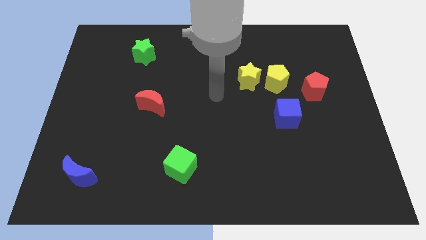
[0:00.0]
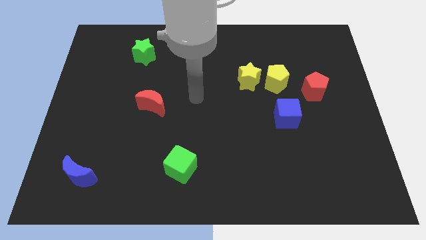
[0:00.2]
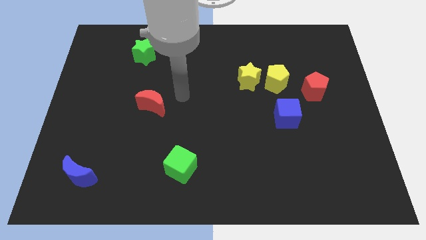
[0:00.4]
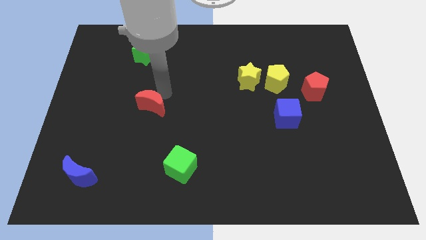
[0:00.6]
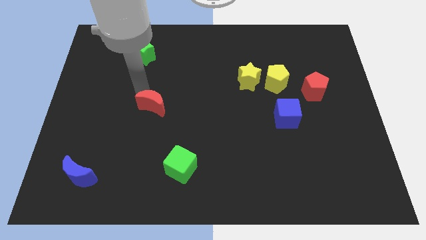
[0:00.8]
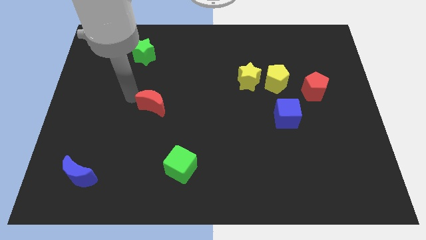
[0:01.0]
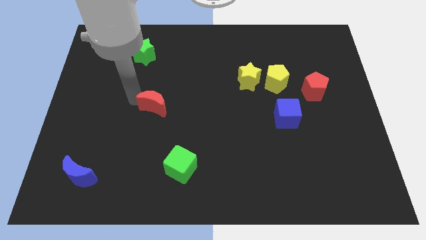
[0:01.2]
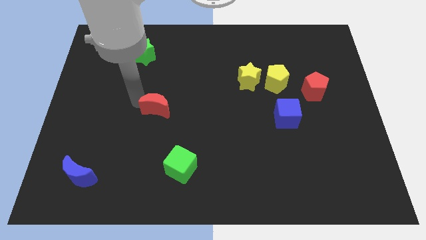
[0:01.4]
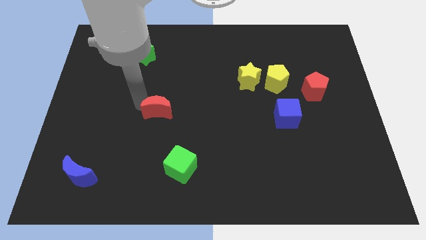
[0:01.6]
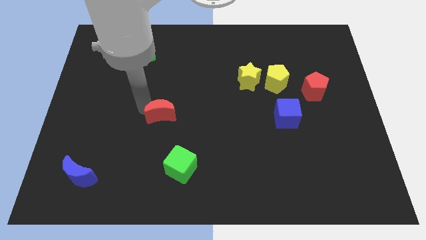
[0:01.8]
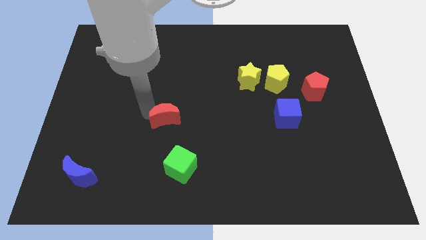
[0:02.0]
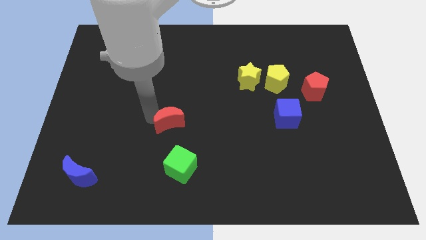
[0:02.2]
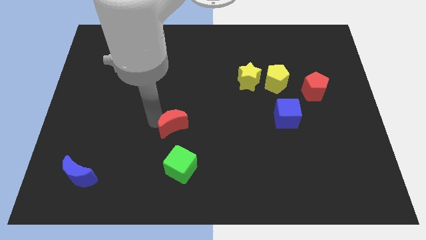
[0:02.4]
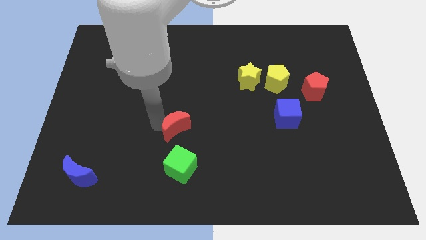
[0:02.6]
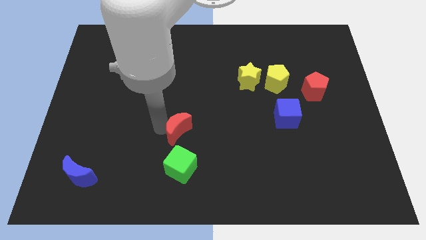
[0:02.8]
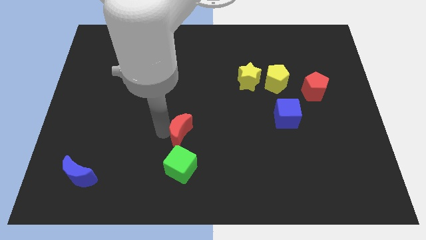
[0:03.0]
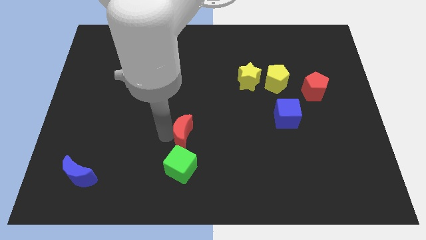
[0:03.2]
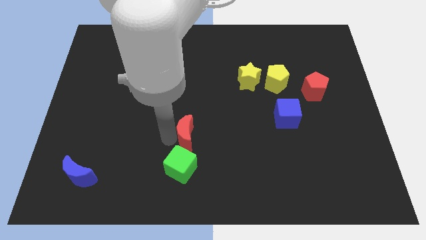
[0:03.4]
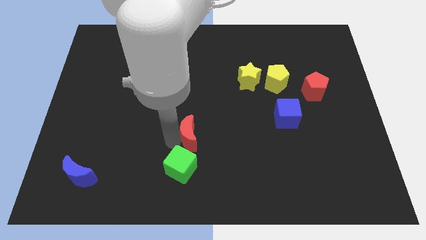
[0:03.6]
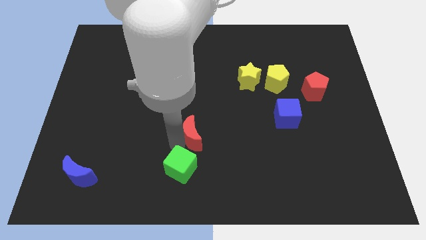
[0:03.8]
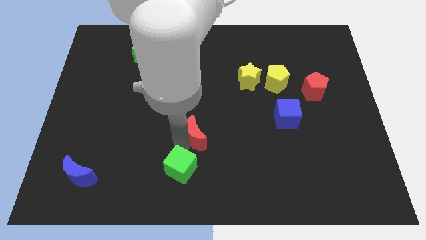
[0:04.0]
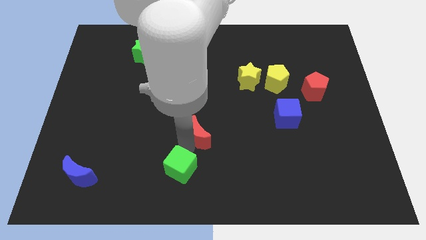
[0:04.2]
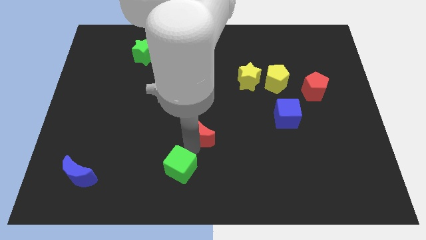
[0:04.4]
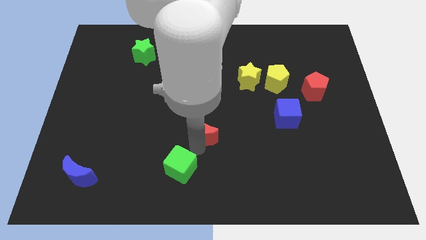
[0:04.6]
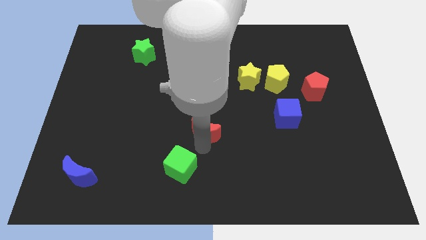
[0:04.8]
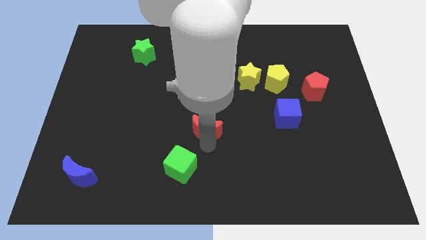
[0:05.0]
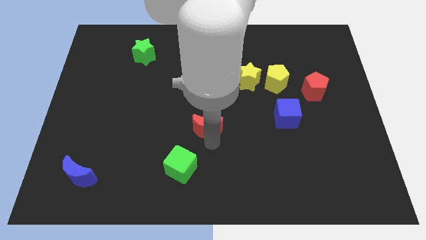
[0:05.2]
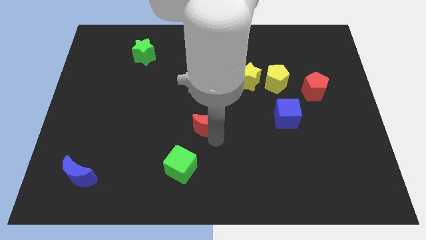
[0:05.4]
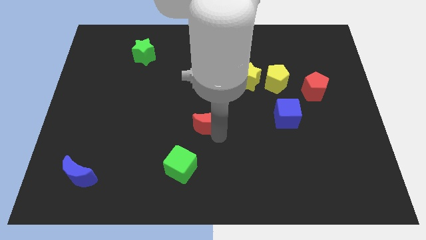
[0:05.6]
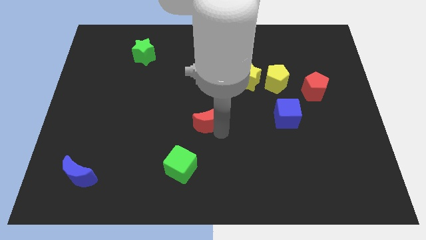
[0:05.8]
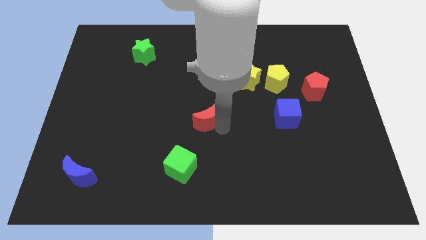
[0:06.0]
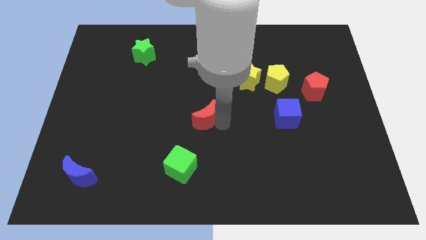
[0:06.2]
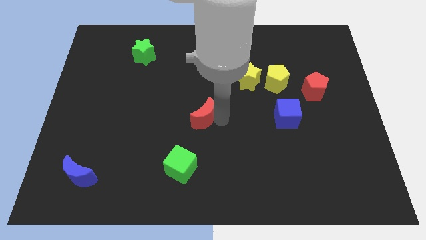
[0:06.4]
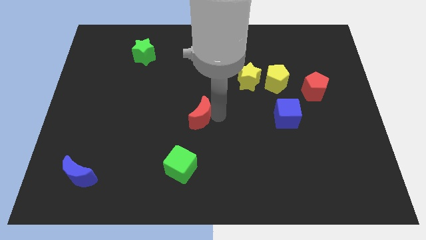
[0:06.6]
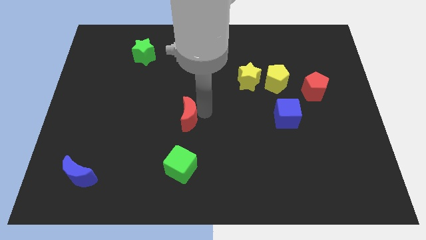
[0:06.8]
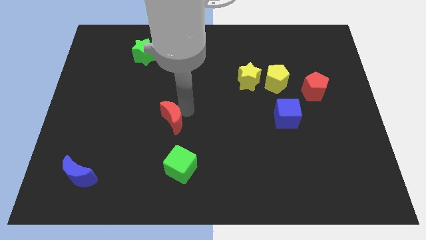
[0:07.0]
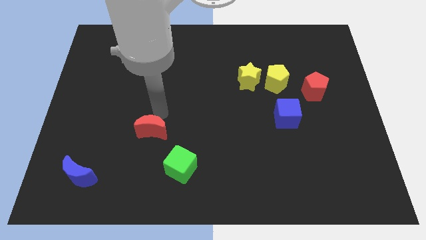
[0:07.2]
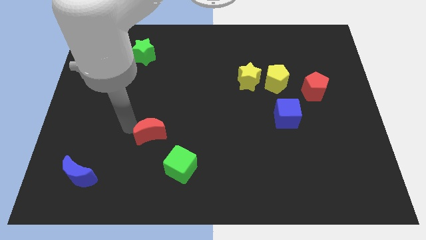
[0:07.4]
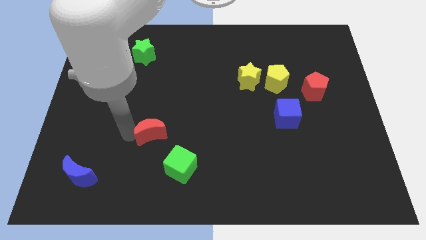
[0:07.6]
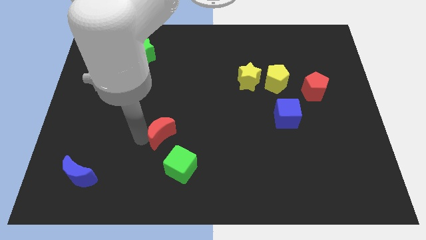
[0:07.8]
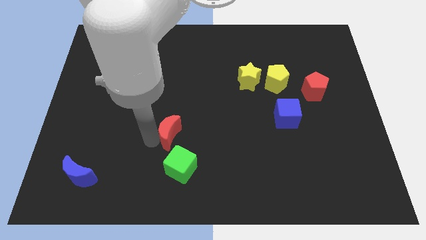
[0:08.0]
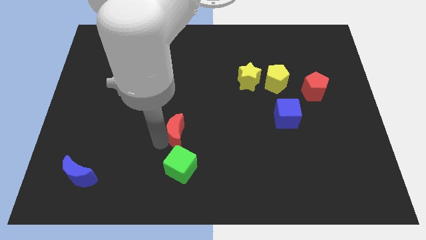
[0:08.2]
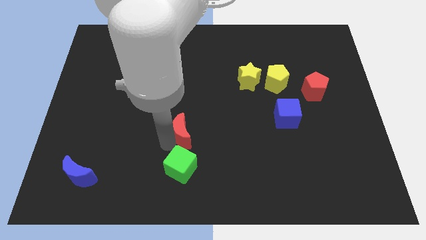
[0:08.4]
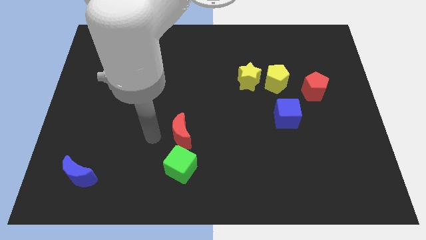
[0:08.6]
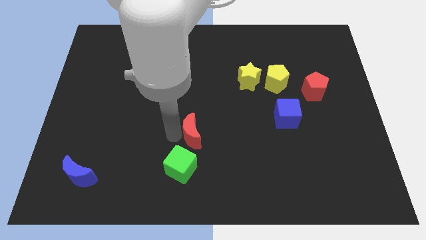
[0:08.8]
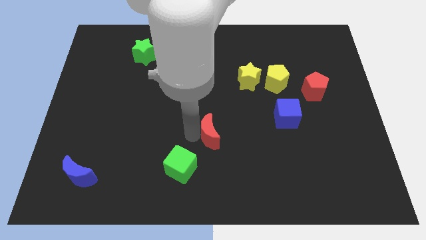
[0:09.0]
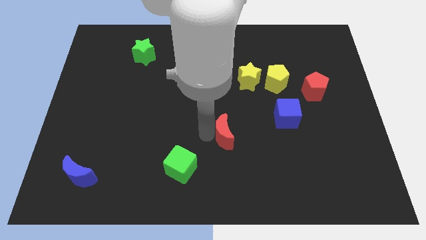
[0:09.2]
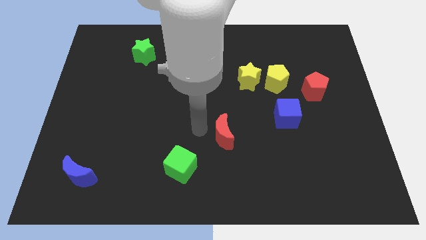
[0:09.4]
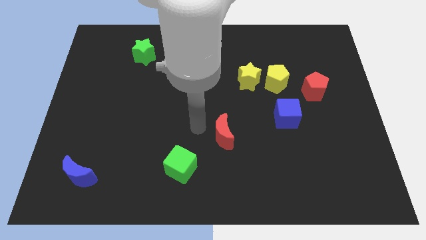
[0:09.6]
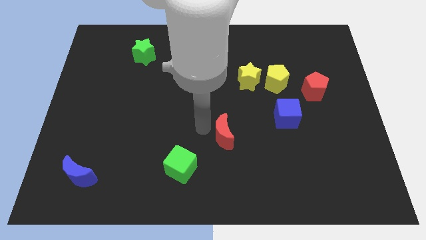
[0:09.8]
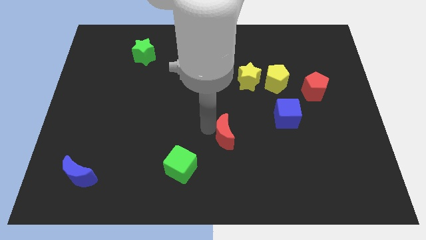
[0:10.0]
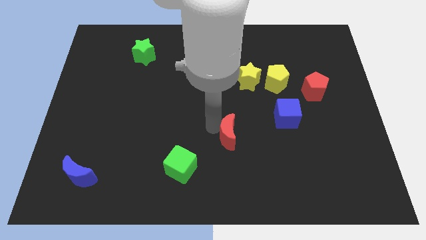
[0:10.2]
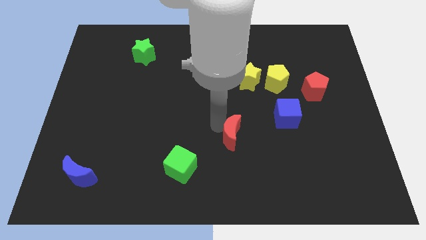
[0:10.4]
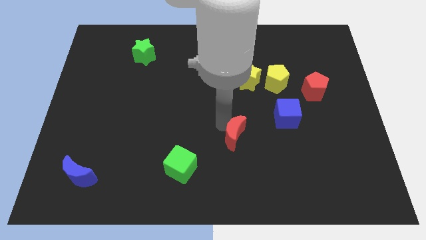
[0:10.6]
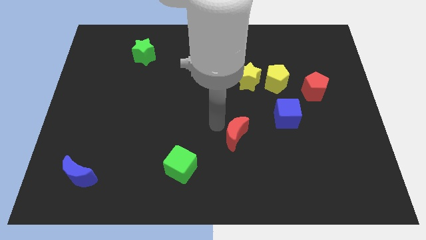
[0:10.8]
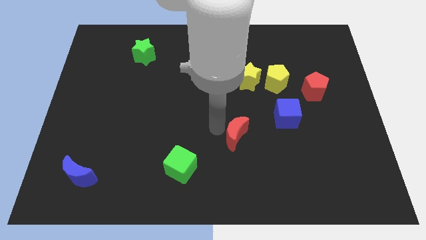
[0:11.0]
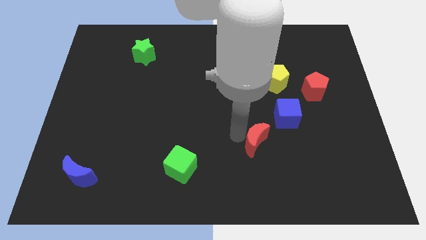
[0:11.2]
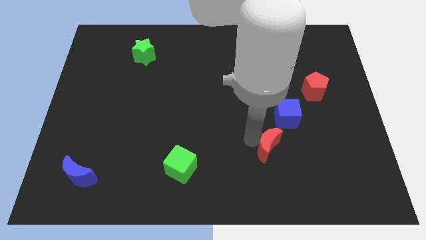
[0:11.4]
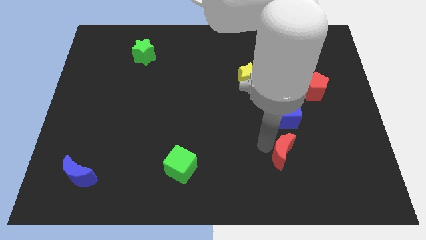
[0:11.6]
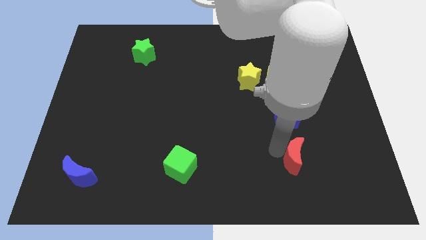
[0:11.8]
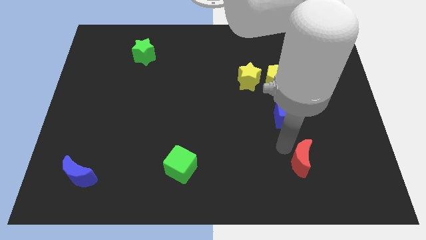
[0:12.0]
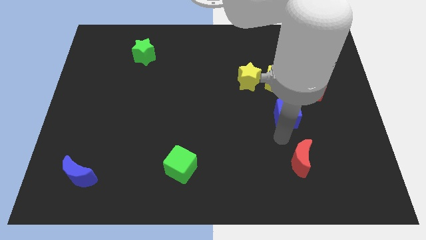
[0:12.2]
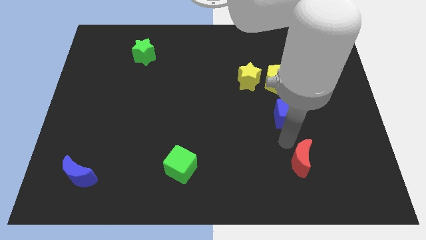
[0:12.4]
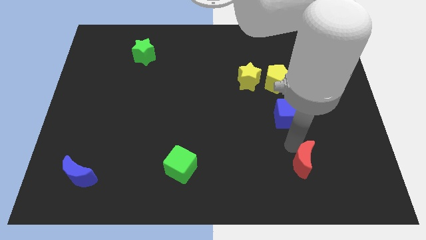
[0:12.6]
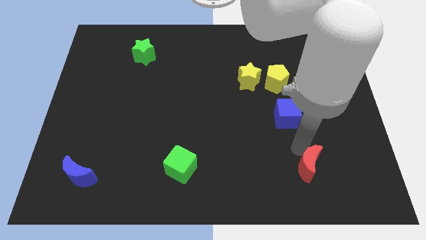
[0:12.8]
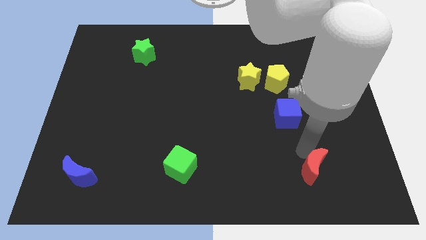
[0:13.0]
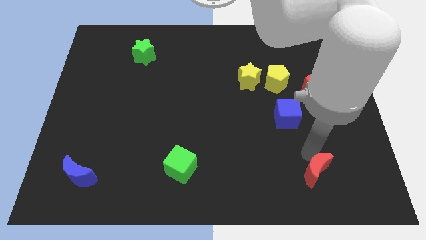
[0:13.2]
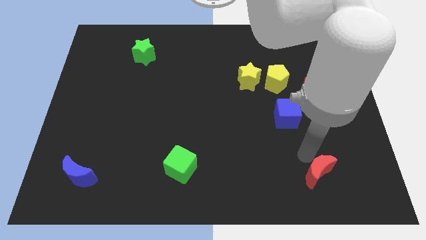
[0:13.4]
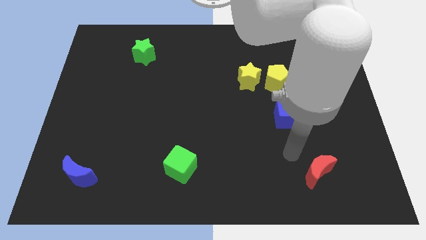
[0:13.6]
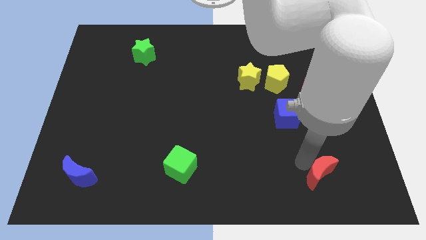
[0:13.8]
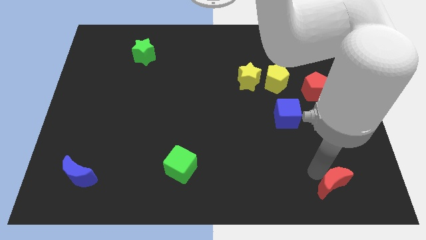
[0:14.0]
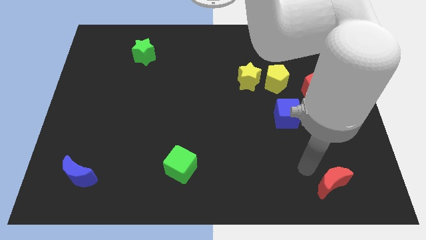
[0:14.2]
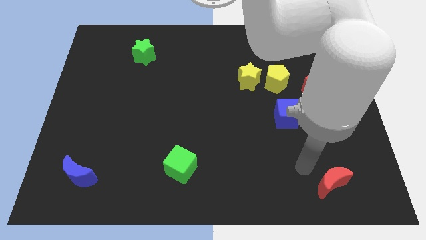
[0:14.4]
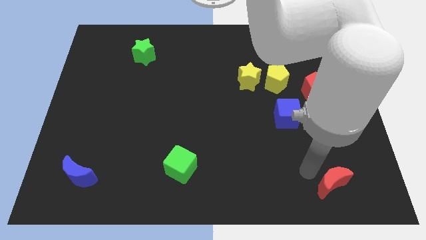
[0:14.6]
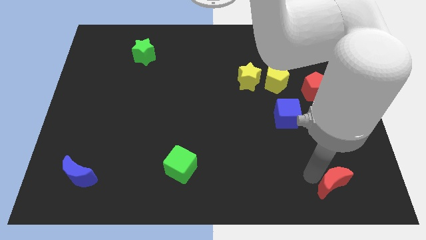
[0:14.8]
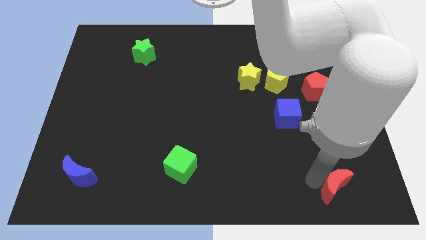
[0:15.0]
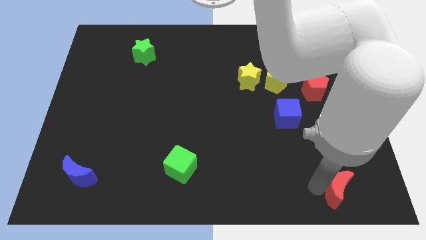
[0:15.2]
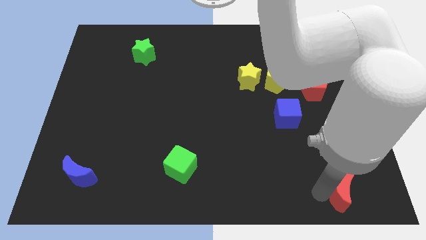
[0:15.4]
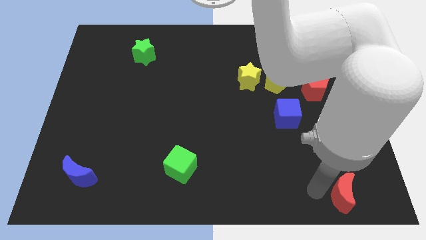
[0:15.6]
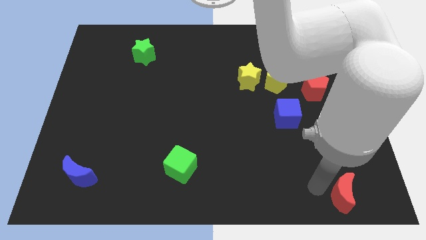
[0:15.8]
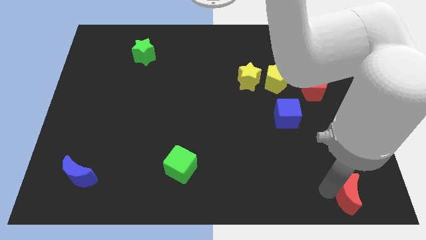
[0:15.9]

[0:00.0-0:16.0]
move the red moon to the bottom right corner
